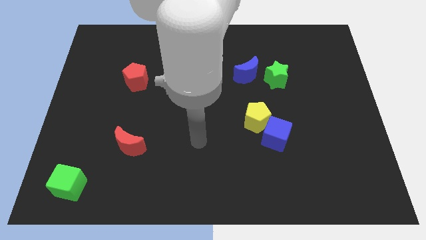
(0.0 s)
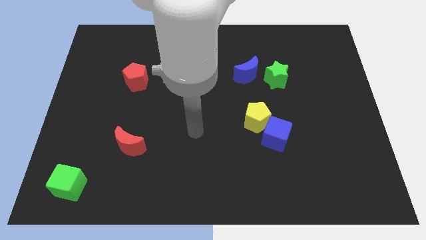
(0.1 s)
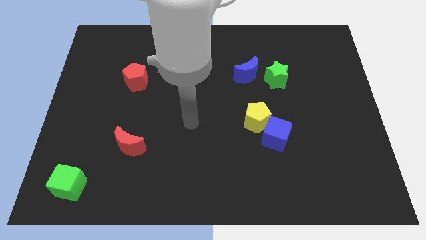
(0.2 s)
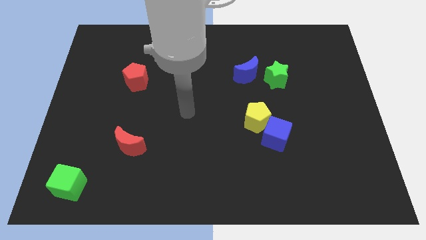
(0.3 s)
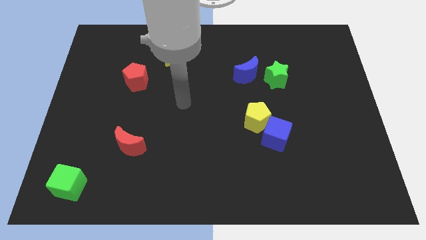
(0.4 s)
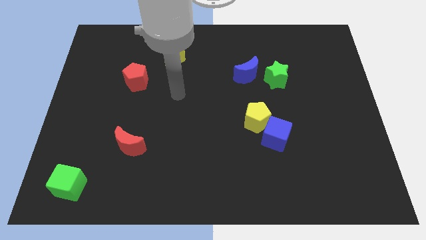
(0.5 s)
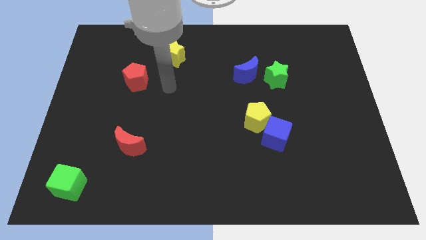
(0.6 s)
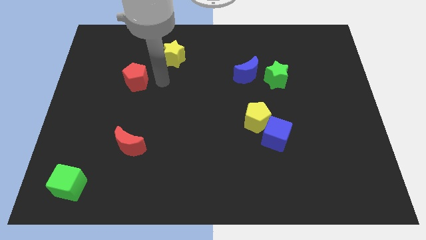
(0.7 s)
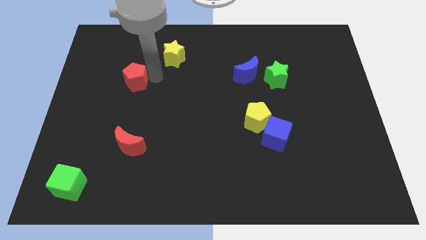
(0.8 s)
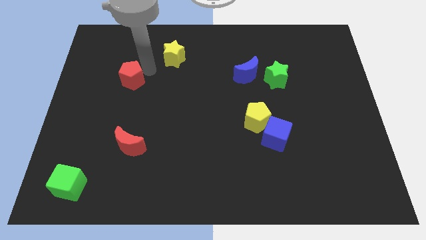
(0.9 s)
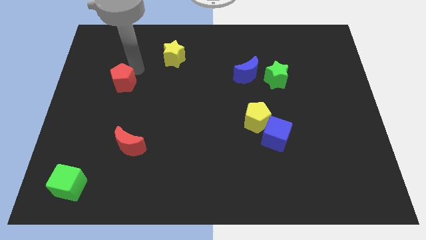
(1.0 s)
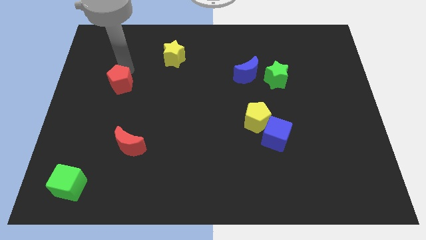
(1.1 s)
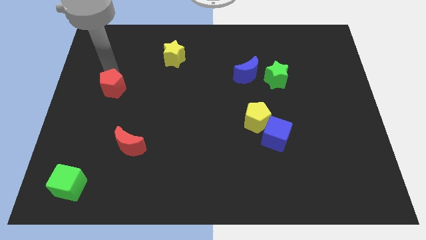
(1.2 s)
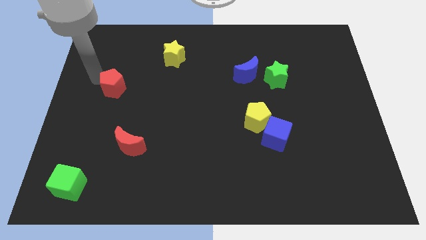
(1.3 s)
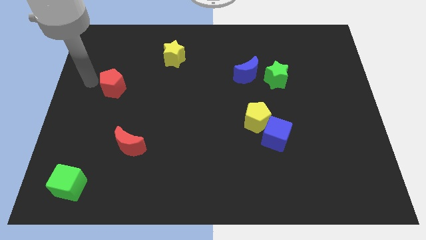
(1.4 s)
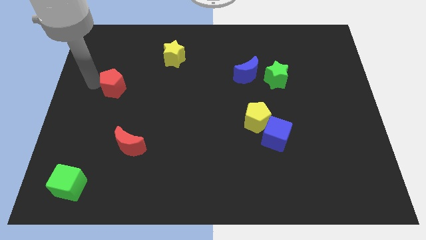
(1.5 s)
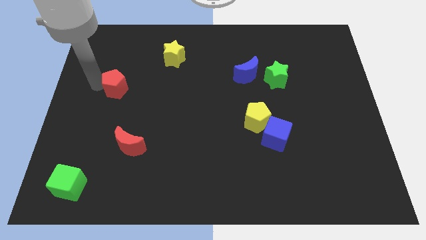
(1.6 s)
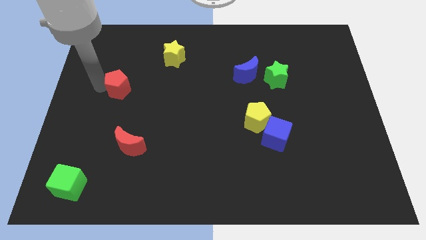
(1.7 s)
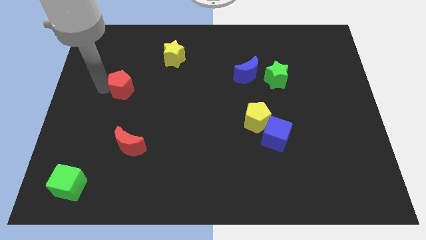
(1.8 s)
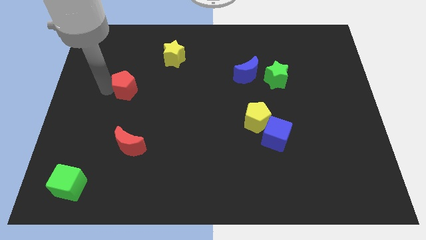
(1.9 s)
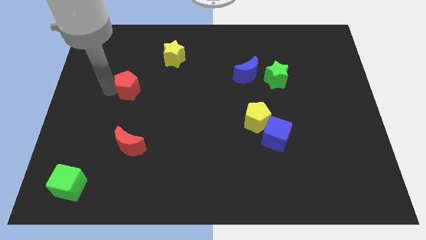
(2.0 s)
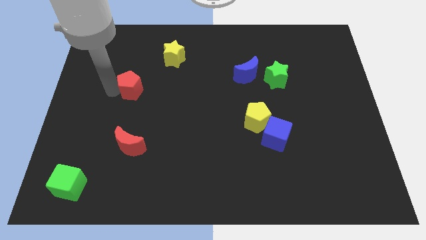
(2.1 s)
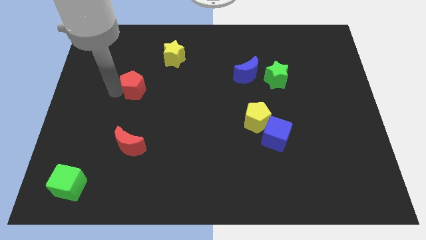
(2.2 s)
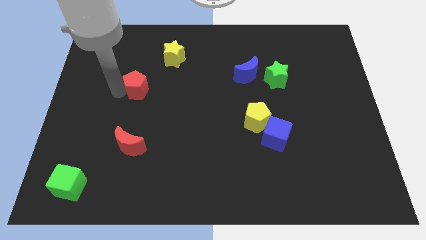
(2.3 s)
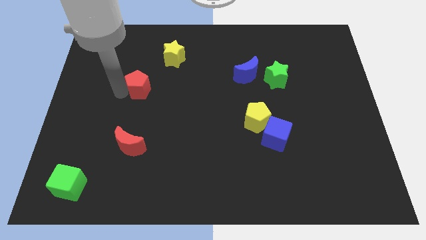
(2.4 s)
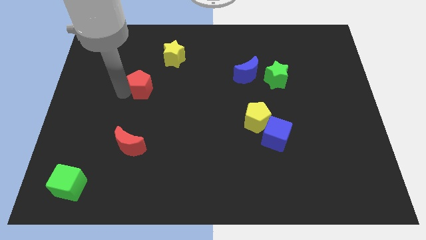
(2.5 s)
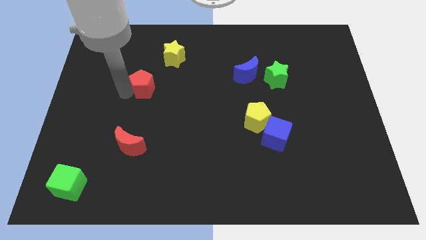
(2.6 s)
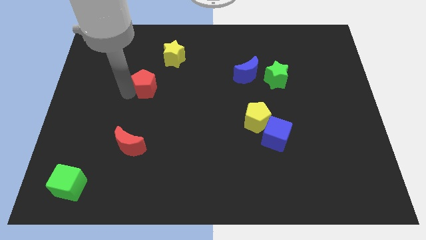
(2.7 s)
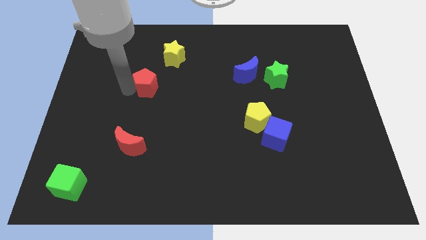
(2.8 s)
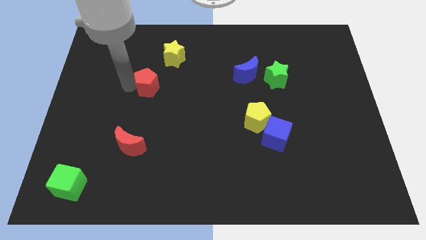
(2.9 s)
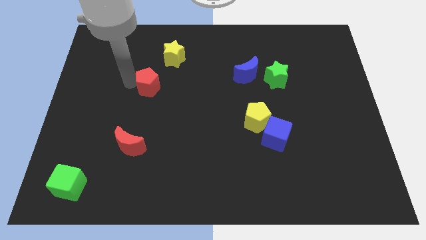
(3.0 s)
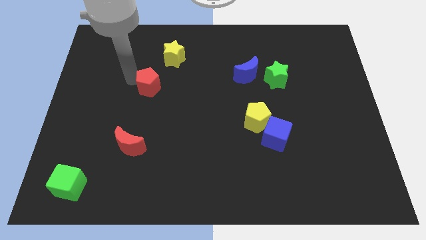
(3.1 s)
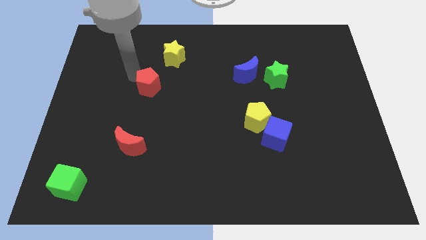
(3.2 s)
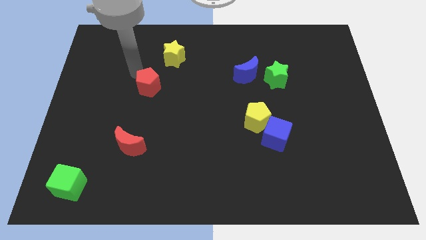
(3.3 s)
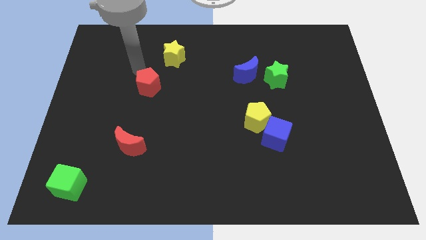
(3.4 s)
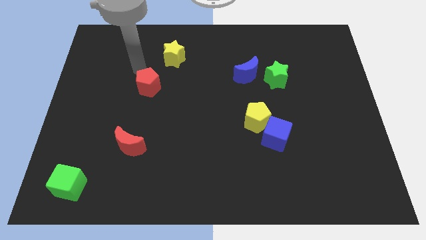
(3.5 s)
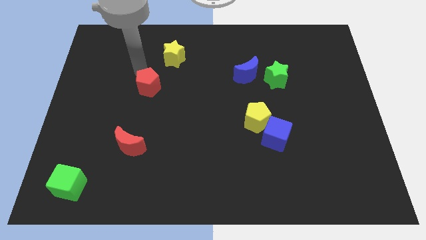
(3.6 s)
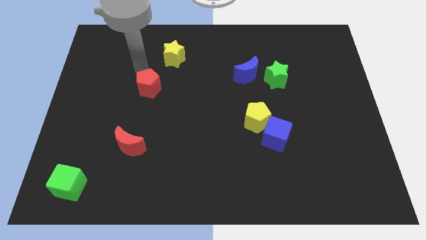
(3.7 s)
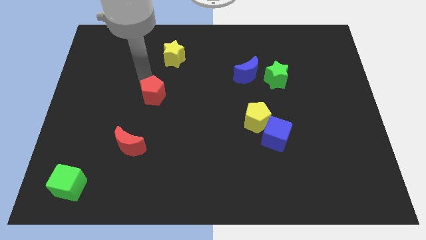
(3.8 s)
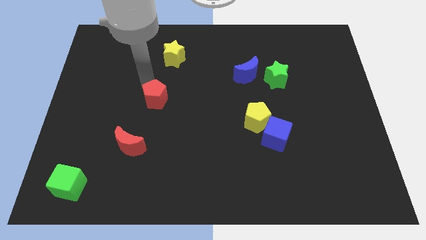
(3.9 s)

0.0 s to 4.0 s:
slightly push the red pentagon downwards and to the right diagonally

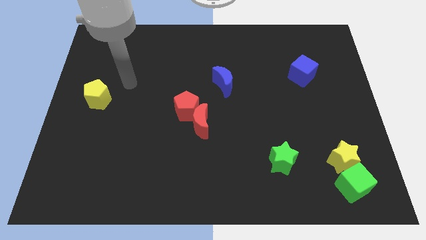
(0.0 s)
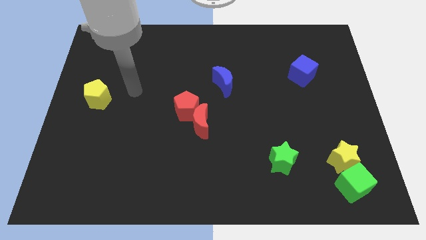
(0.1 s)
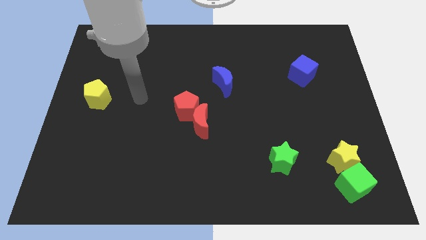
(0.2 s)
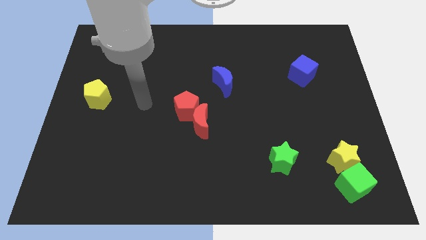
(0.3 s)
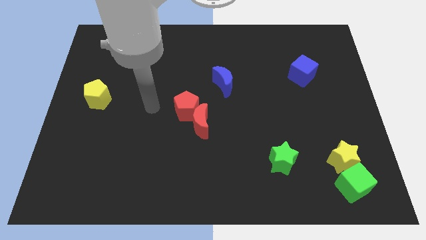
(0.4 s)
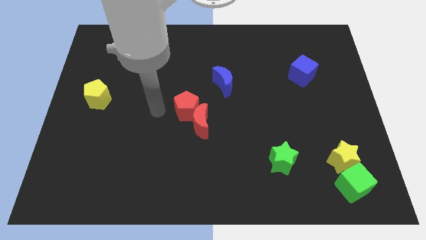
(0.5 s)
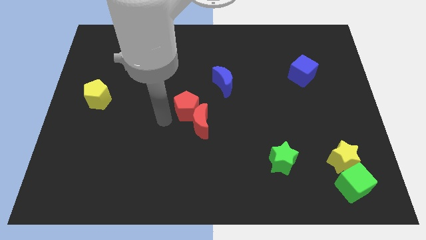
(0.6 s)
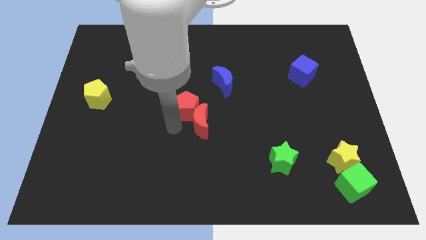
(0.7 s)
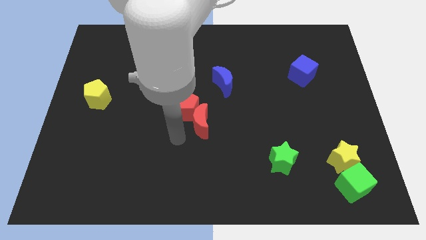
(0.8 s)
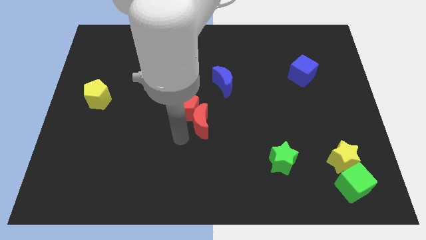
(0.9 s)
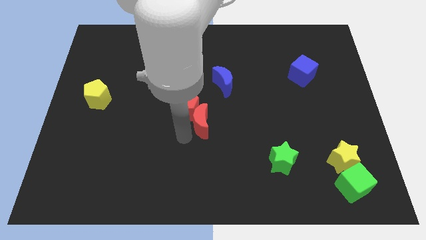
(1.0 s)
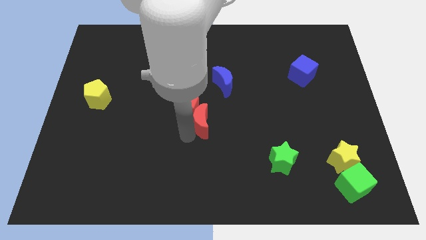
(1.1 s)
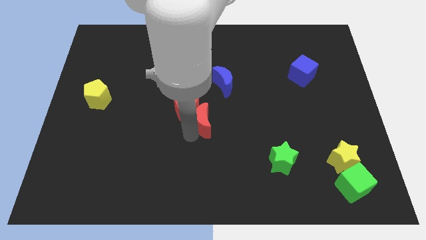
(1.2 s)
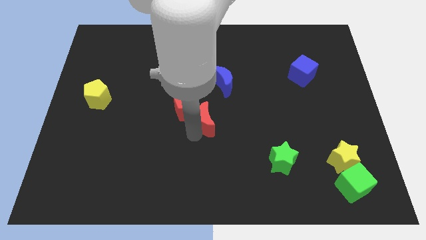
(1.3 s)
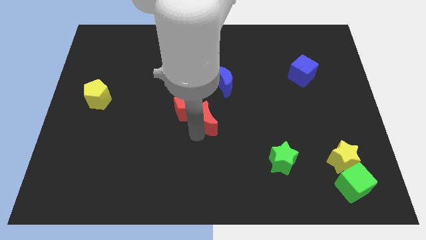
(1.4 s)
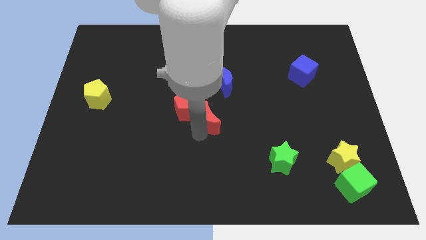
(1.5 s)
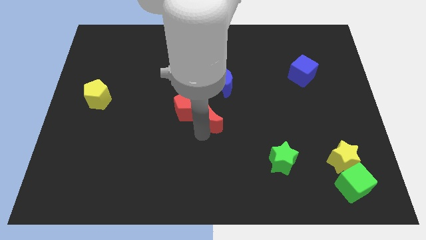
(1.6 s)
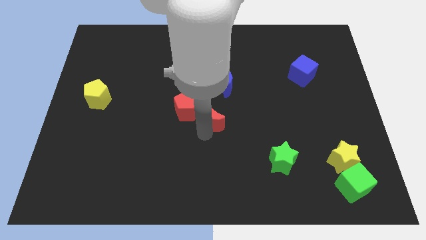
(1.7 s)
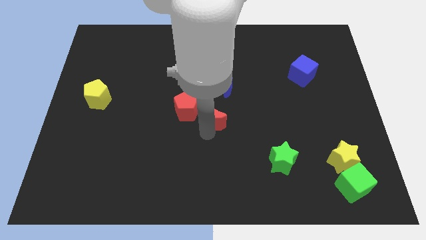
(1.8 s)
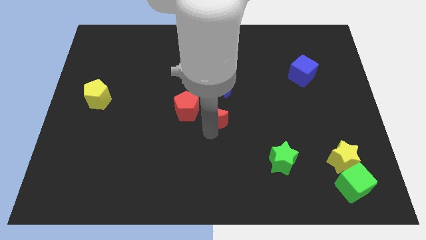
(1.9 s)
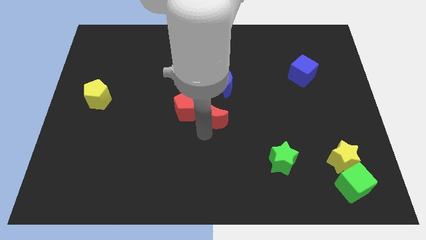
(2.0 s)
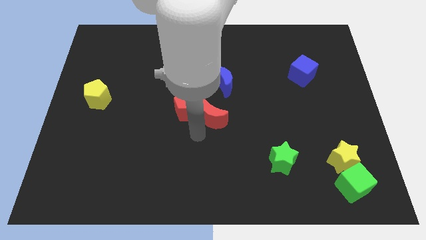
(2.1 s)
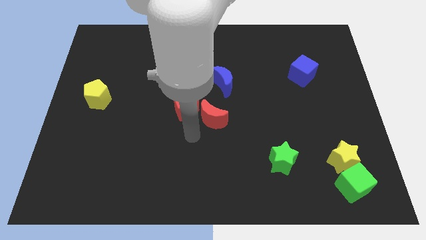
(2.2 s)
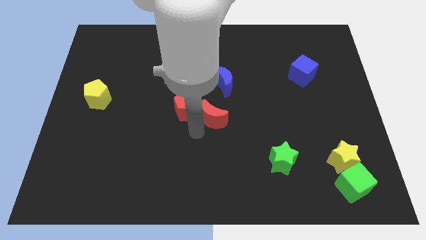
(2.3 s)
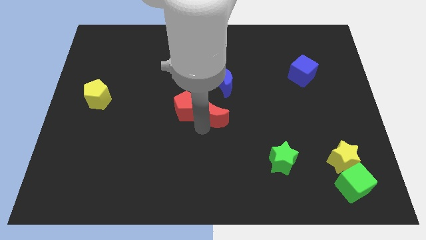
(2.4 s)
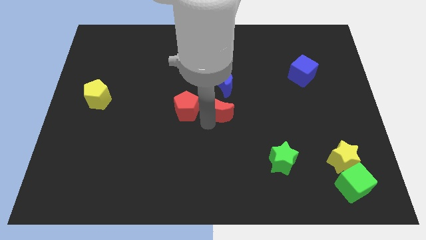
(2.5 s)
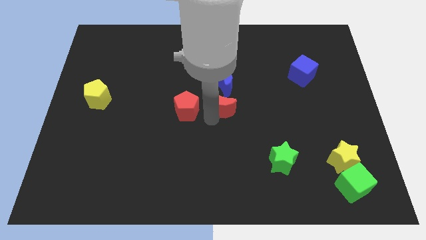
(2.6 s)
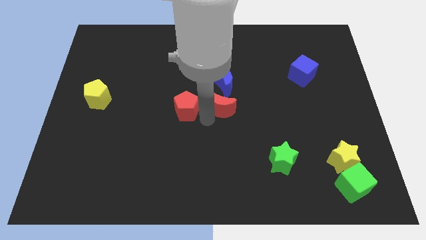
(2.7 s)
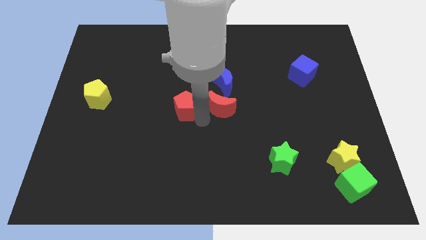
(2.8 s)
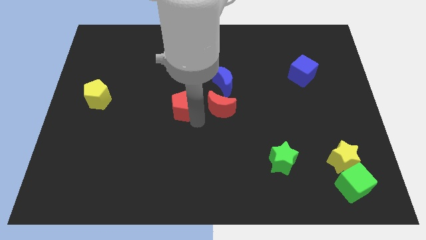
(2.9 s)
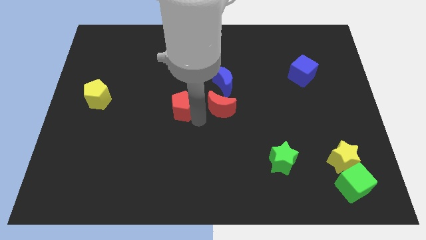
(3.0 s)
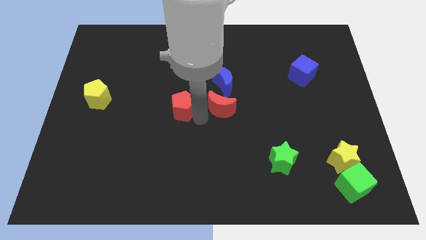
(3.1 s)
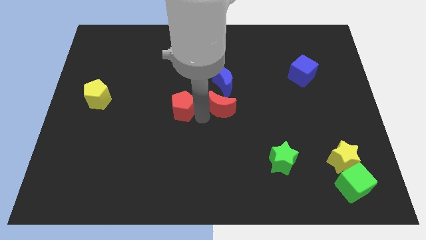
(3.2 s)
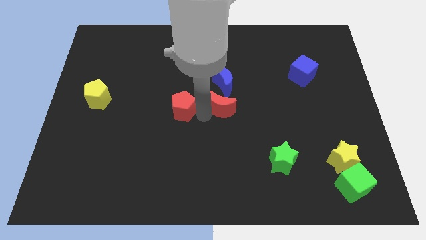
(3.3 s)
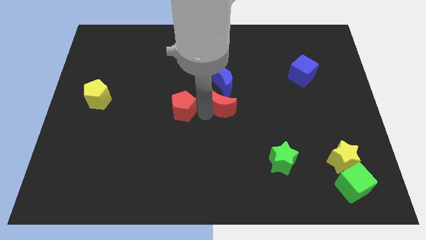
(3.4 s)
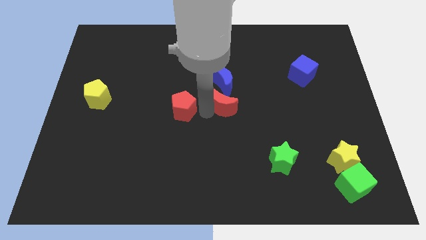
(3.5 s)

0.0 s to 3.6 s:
slightly slide the red moon upwards and to the right

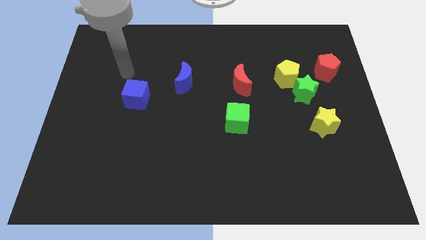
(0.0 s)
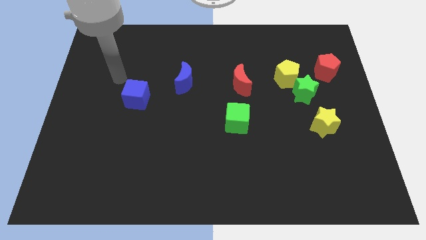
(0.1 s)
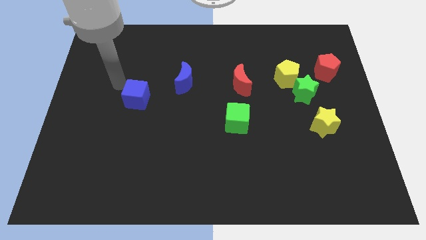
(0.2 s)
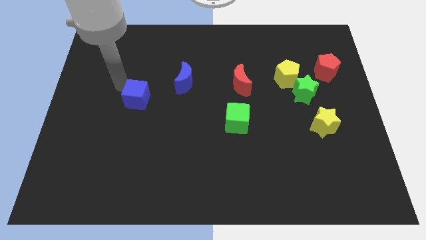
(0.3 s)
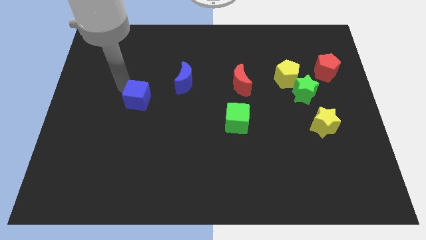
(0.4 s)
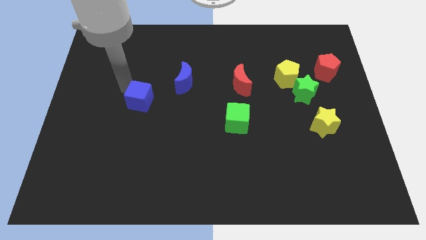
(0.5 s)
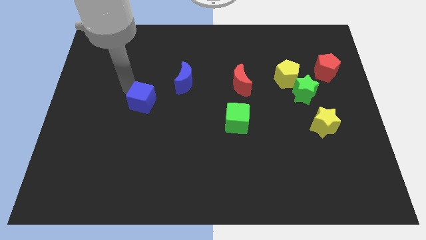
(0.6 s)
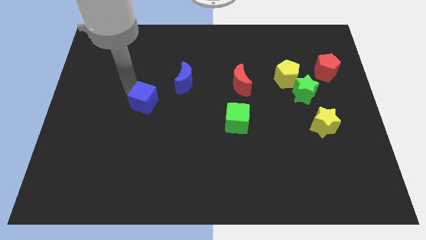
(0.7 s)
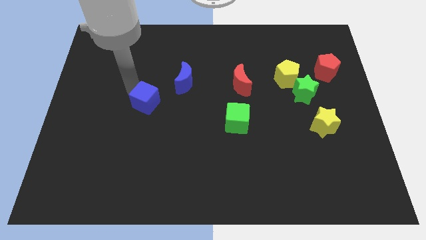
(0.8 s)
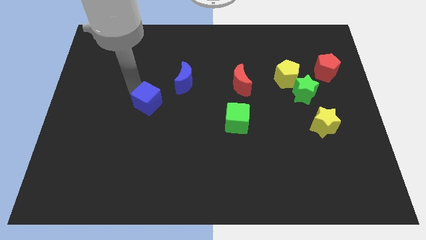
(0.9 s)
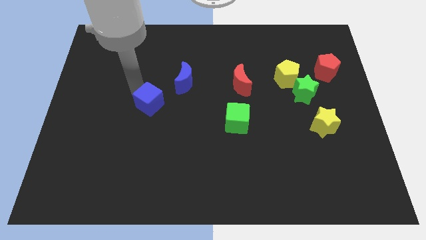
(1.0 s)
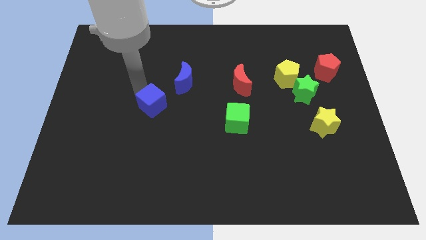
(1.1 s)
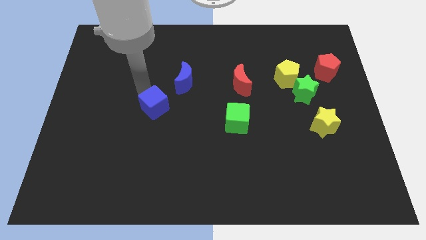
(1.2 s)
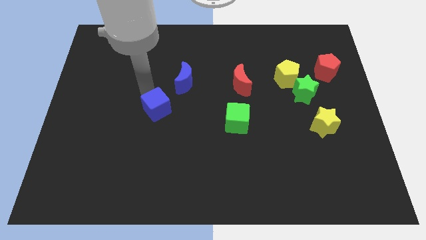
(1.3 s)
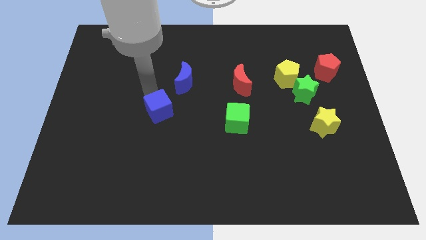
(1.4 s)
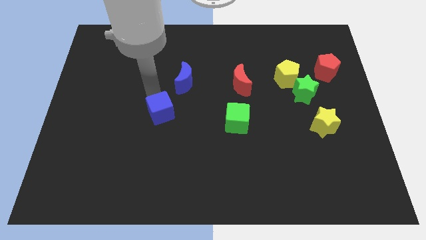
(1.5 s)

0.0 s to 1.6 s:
slide the blue cube a bit diagonally down and right
